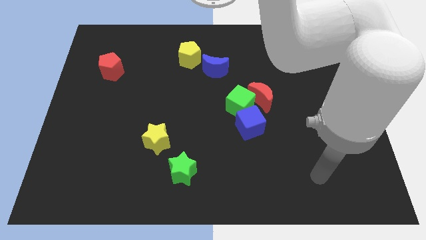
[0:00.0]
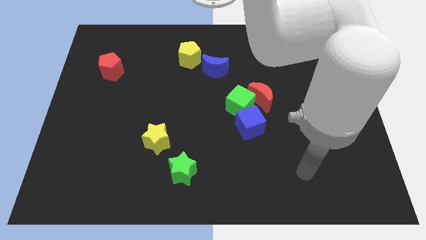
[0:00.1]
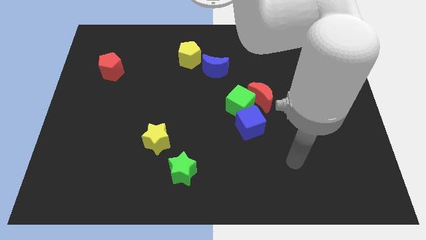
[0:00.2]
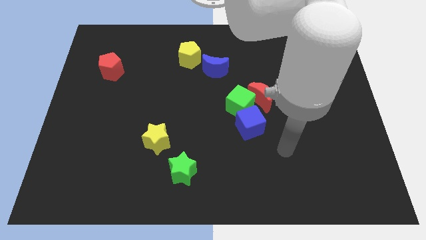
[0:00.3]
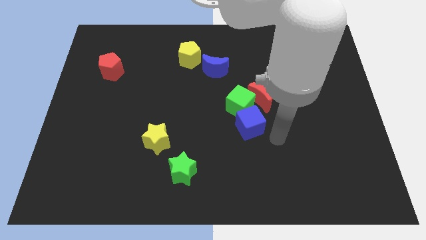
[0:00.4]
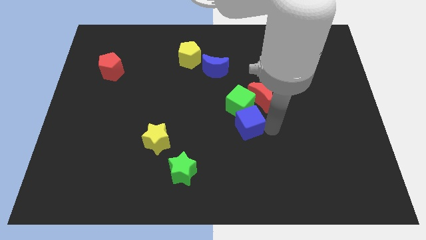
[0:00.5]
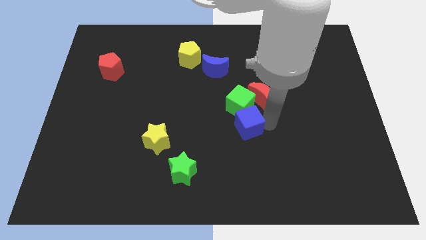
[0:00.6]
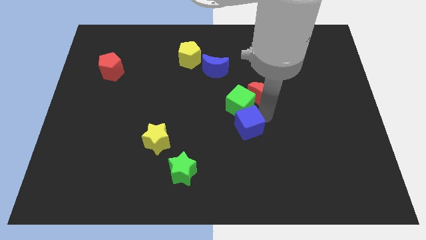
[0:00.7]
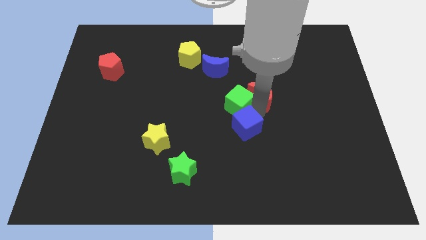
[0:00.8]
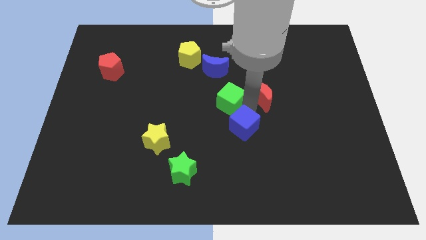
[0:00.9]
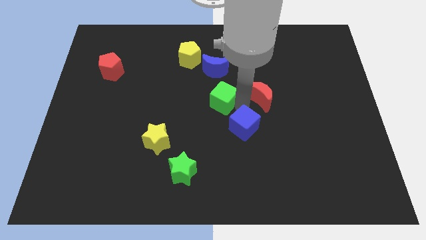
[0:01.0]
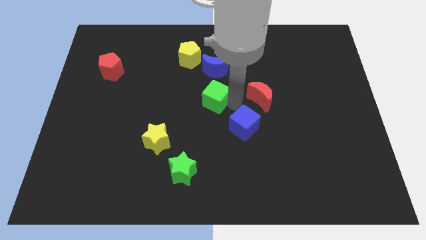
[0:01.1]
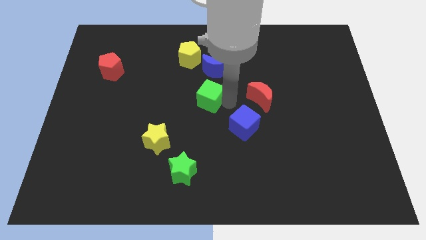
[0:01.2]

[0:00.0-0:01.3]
pull the green cube apart from the red moon and blue cube

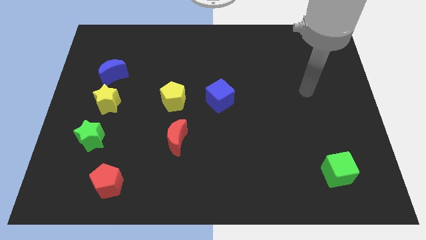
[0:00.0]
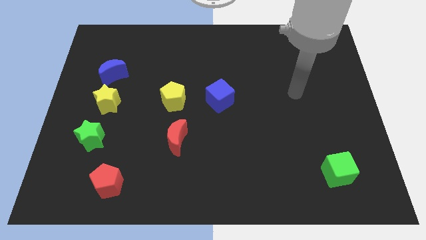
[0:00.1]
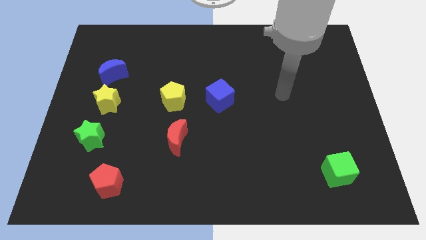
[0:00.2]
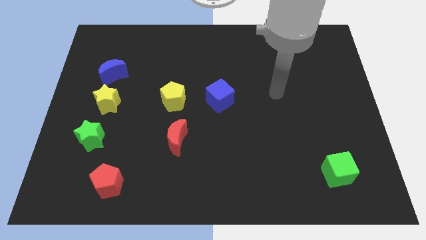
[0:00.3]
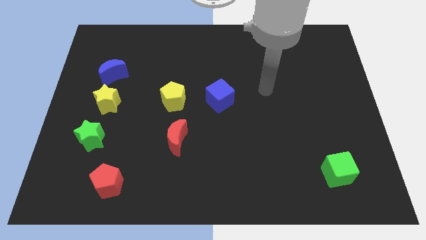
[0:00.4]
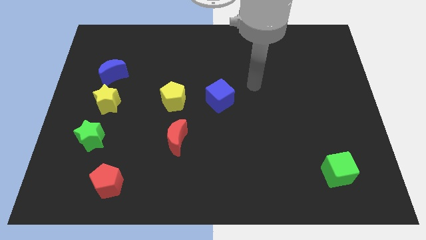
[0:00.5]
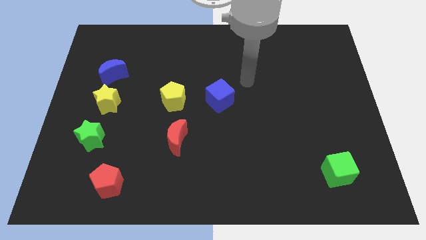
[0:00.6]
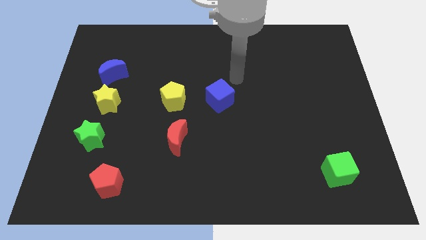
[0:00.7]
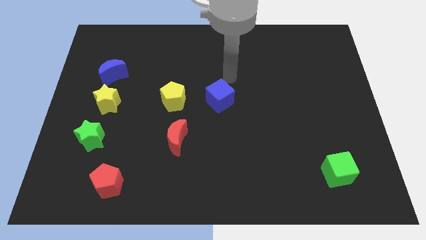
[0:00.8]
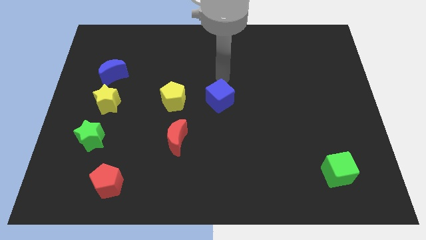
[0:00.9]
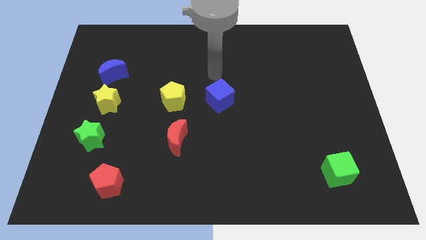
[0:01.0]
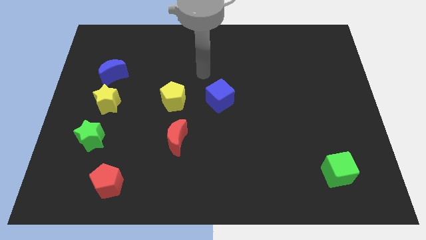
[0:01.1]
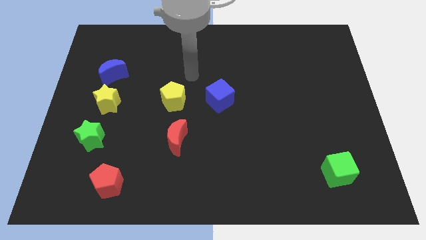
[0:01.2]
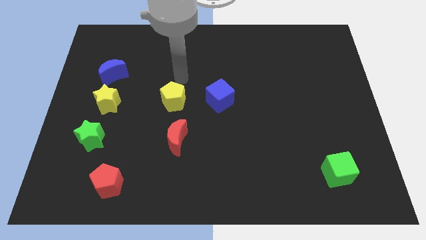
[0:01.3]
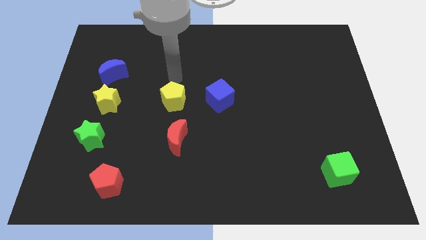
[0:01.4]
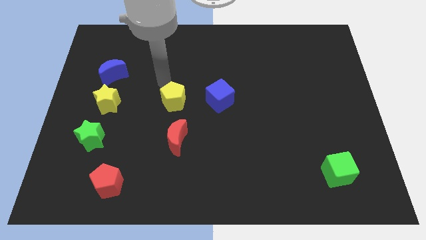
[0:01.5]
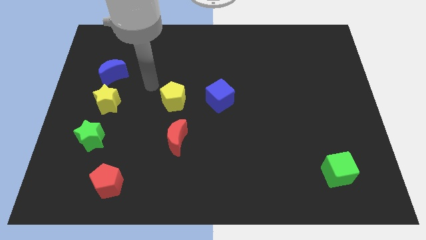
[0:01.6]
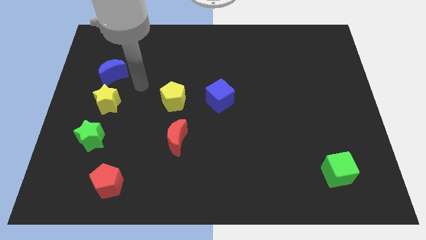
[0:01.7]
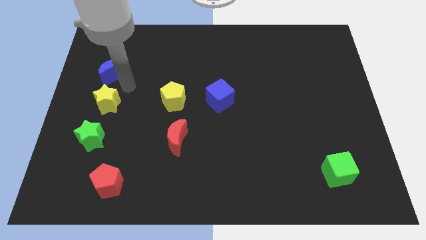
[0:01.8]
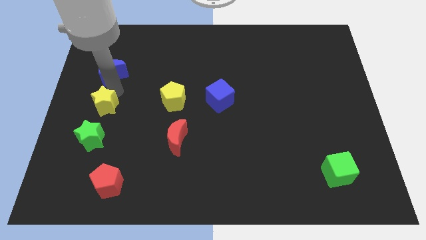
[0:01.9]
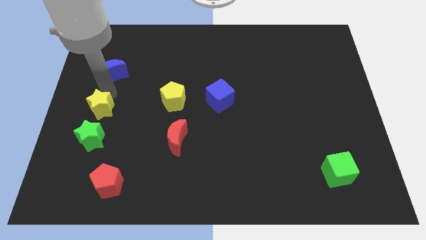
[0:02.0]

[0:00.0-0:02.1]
move the blue moon away from the yellow star

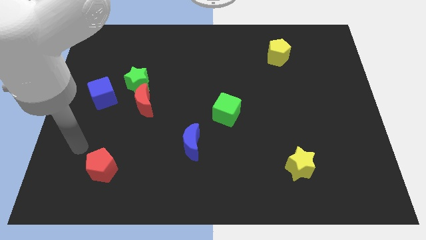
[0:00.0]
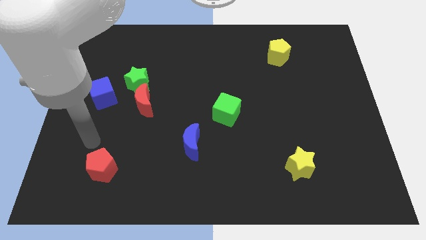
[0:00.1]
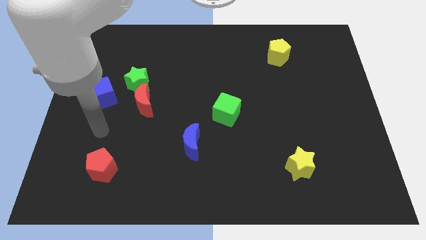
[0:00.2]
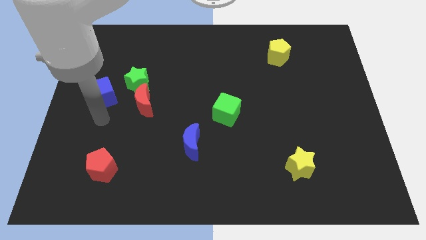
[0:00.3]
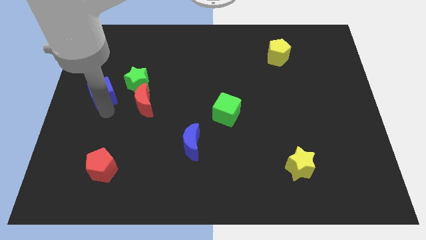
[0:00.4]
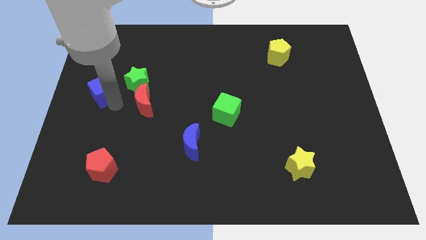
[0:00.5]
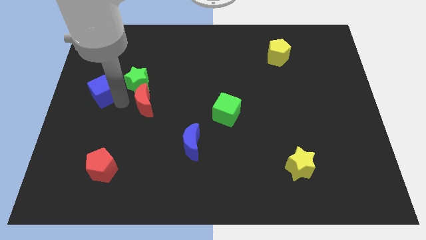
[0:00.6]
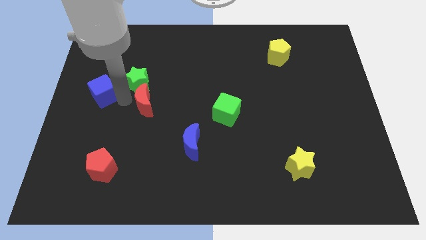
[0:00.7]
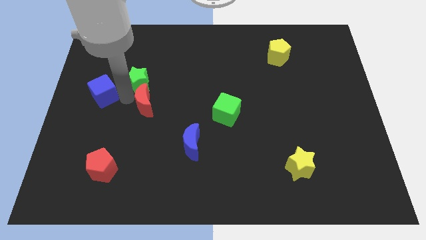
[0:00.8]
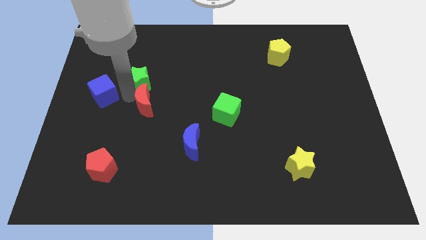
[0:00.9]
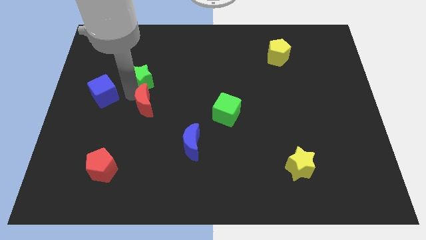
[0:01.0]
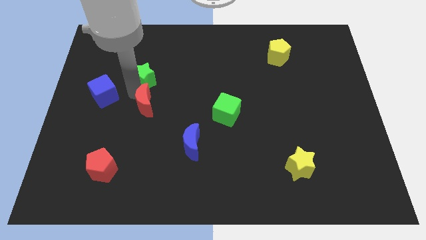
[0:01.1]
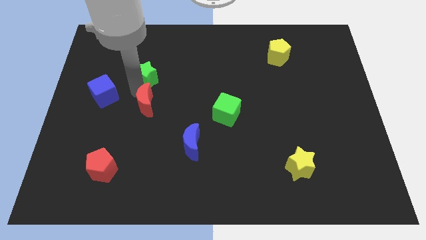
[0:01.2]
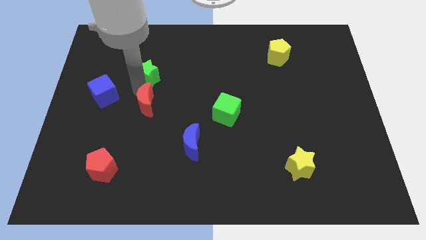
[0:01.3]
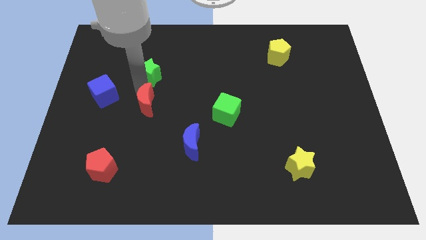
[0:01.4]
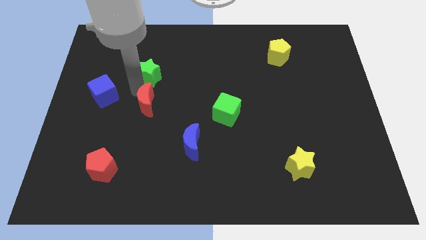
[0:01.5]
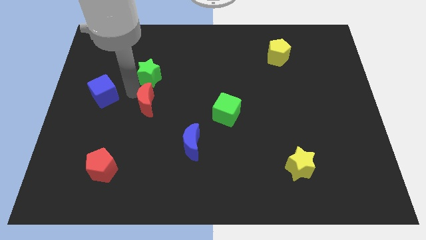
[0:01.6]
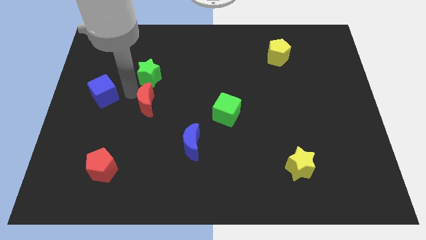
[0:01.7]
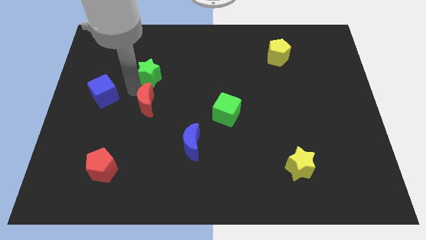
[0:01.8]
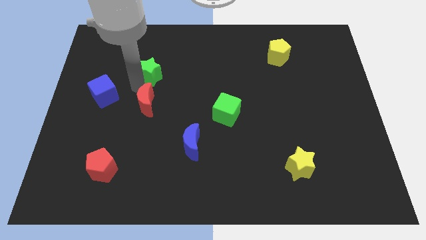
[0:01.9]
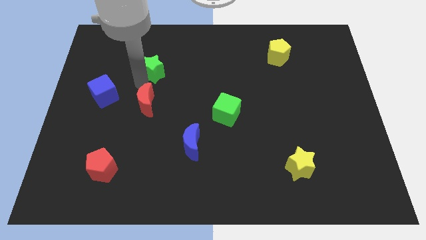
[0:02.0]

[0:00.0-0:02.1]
pull the green star apart from the red moon and blue cube

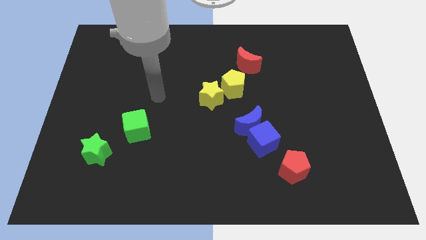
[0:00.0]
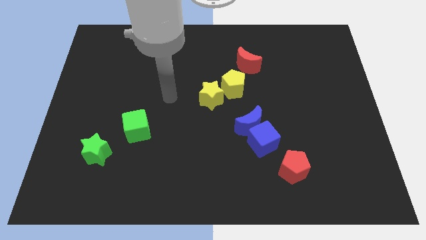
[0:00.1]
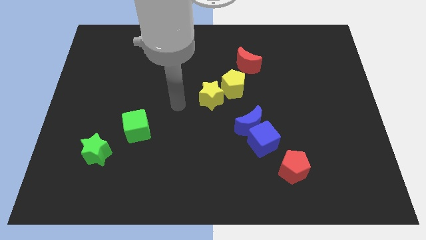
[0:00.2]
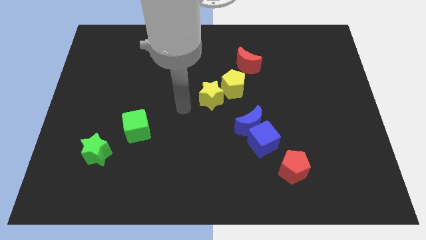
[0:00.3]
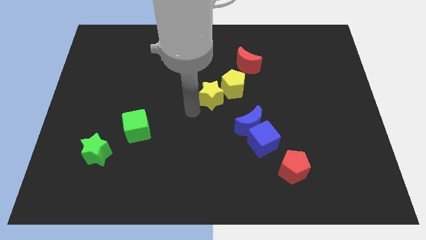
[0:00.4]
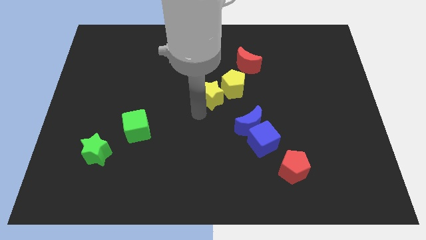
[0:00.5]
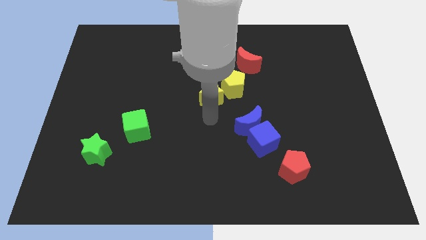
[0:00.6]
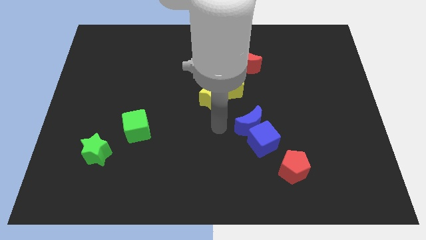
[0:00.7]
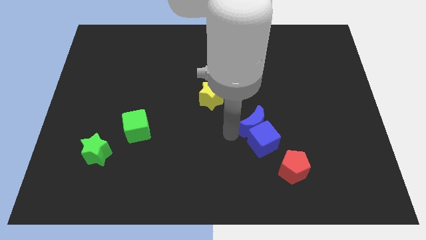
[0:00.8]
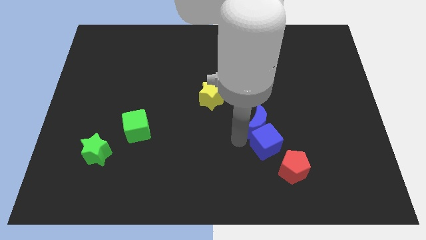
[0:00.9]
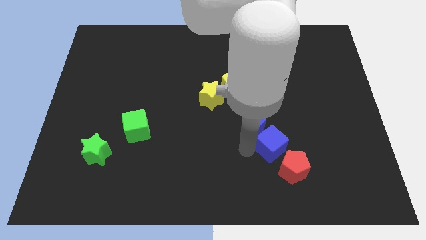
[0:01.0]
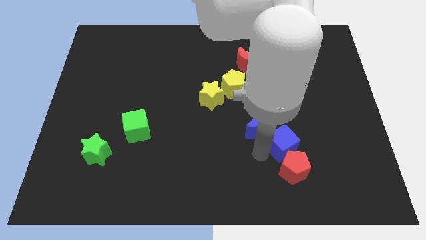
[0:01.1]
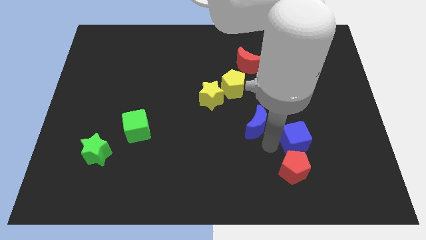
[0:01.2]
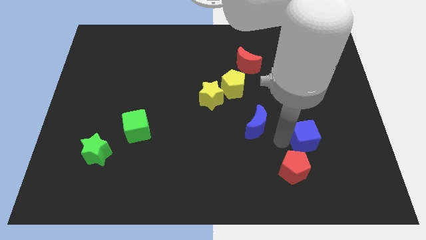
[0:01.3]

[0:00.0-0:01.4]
move the blue moon away from the blue cube

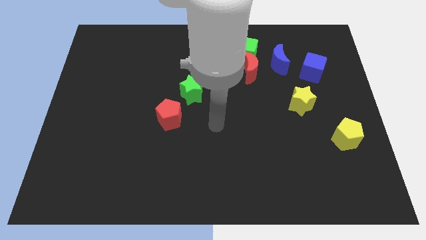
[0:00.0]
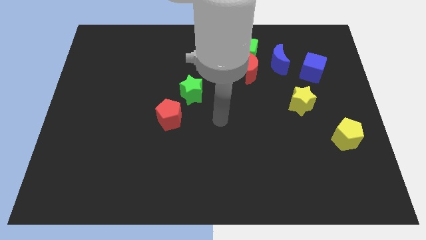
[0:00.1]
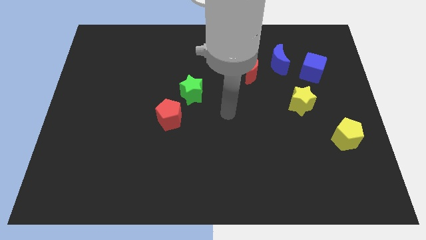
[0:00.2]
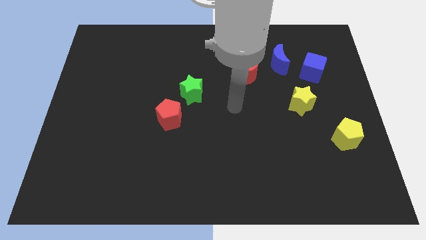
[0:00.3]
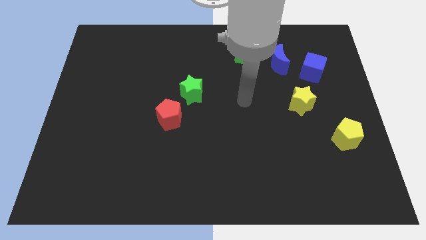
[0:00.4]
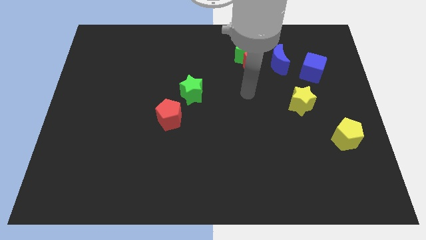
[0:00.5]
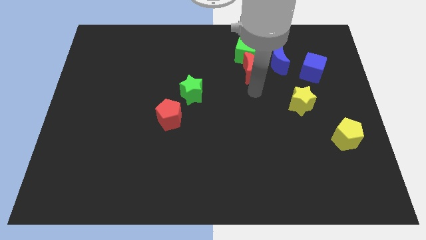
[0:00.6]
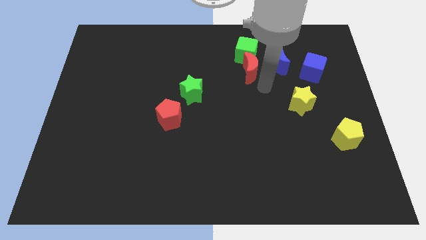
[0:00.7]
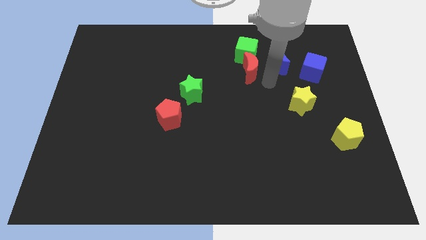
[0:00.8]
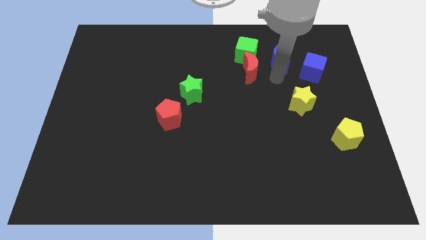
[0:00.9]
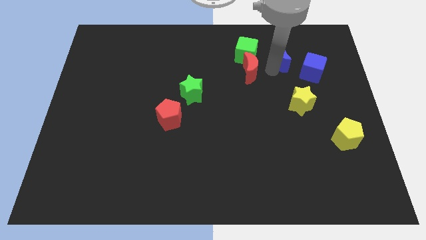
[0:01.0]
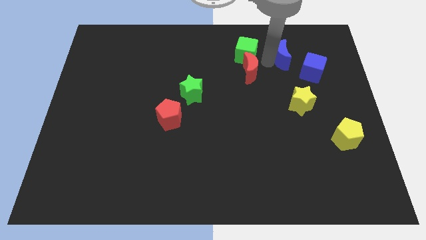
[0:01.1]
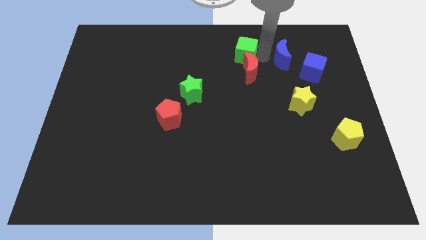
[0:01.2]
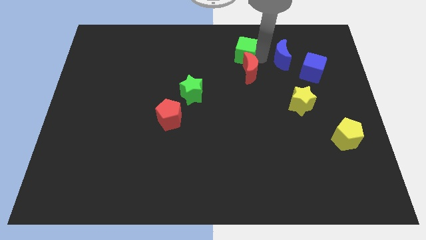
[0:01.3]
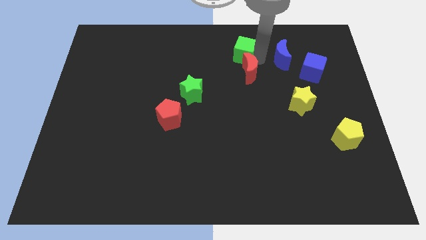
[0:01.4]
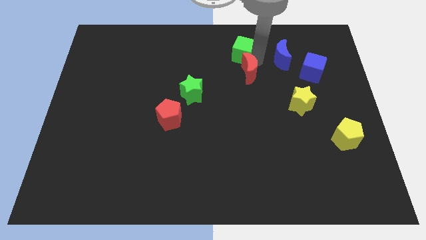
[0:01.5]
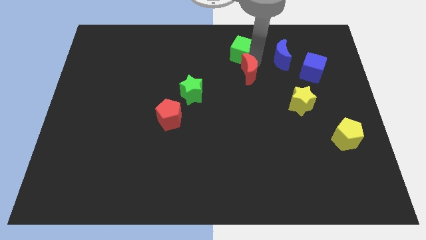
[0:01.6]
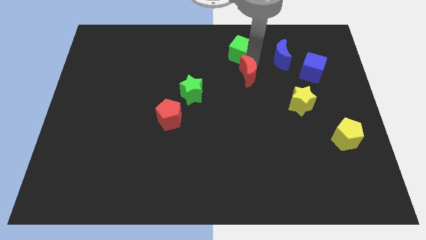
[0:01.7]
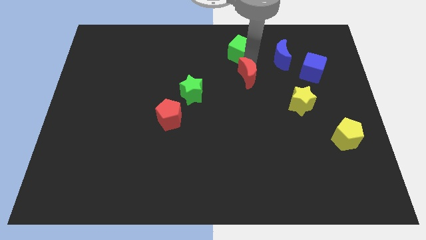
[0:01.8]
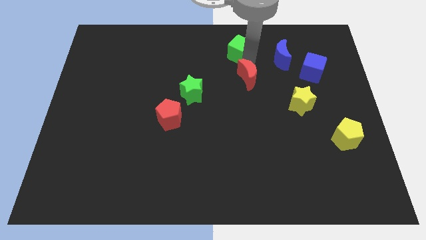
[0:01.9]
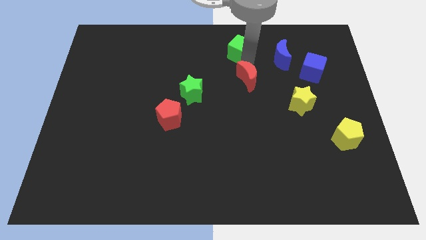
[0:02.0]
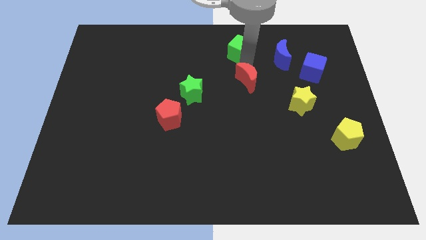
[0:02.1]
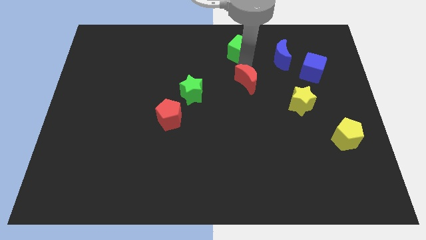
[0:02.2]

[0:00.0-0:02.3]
move the red moon away from the green cube and blue moon
